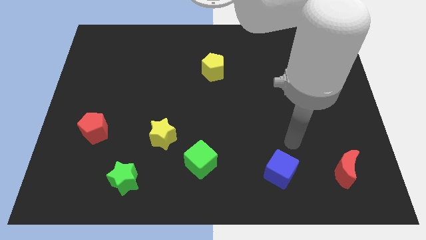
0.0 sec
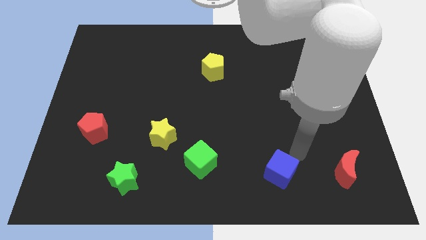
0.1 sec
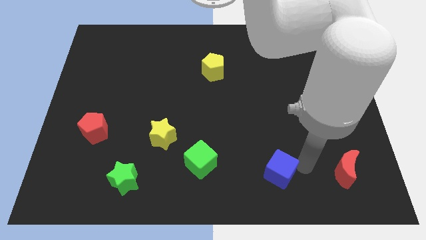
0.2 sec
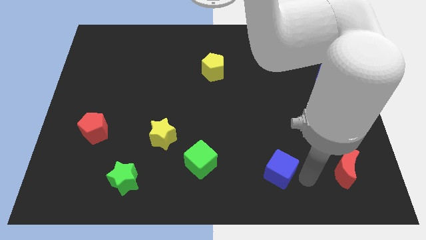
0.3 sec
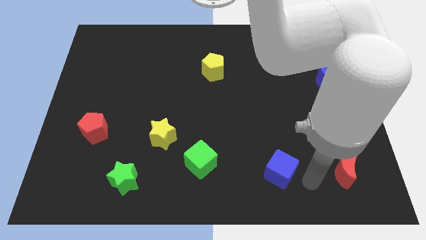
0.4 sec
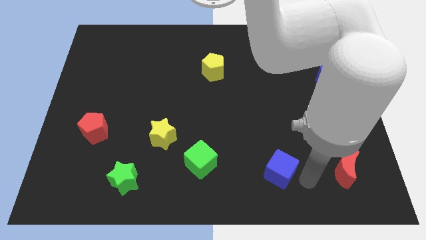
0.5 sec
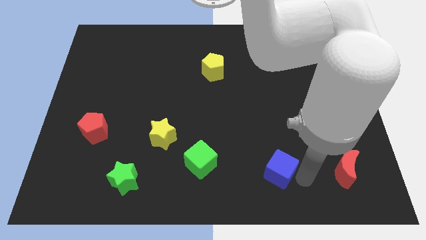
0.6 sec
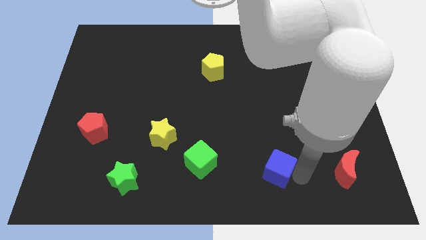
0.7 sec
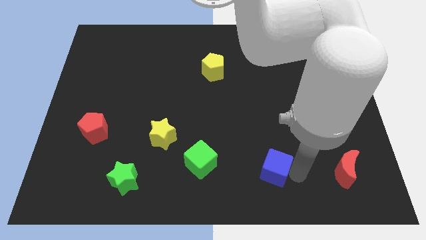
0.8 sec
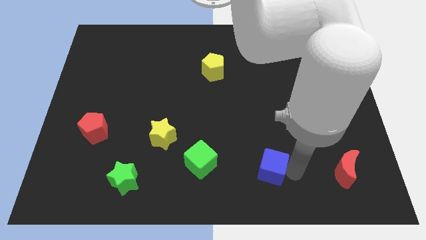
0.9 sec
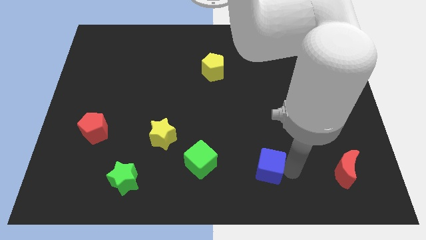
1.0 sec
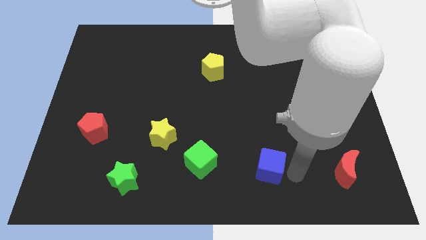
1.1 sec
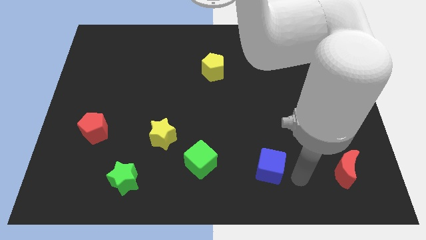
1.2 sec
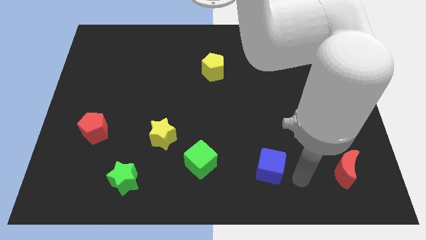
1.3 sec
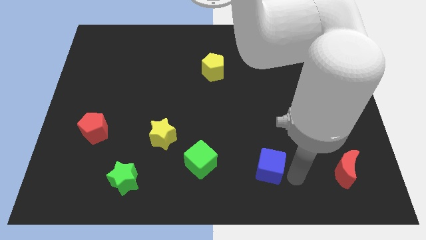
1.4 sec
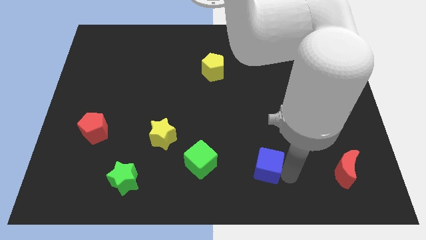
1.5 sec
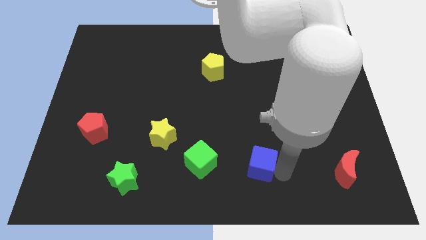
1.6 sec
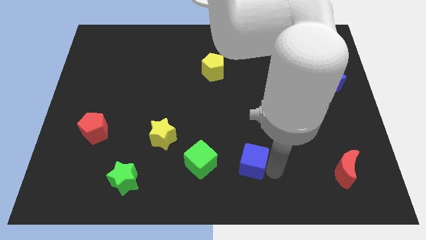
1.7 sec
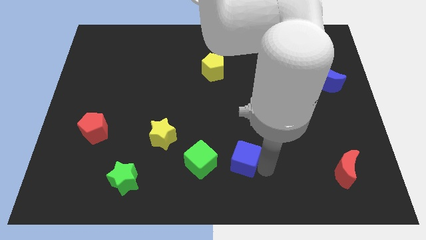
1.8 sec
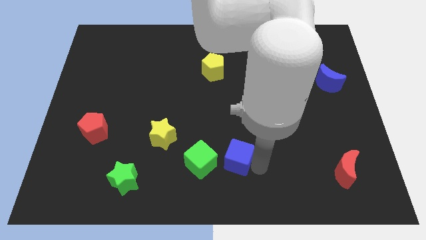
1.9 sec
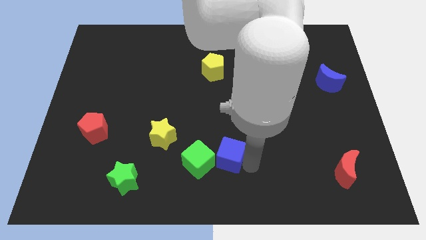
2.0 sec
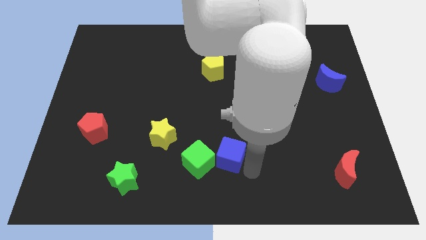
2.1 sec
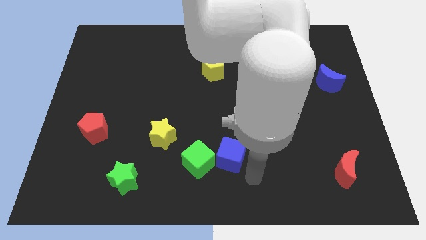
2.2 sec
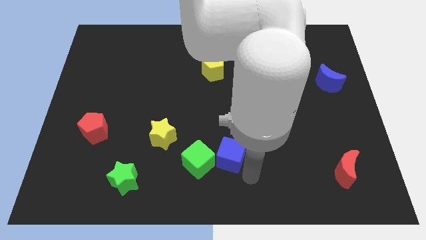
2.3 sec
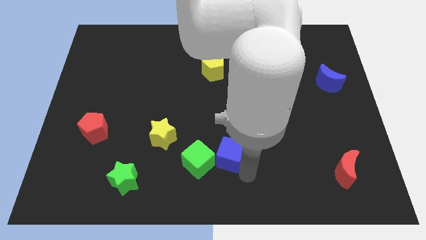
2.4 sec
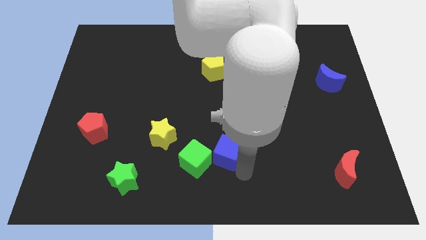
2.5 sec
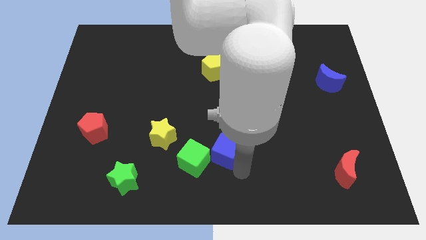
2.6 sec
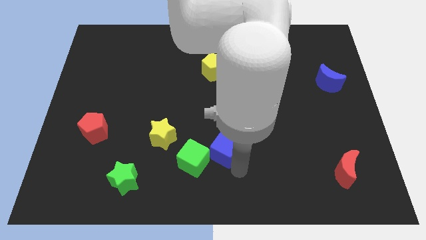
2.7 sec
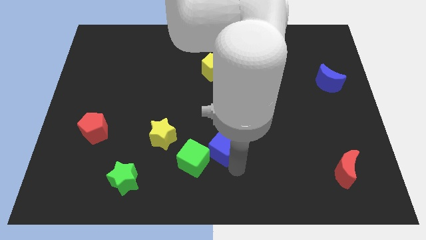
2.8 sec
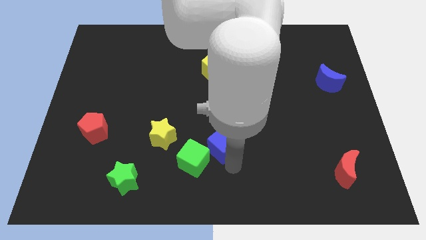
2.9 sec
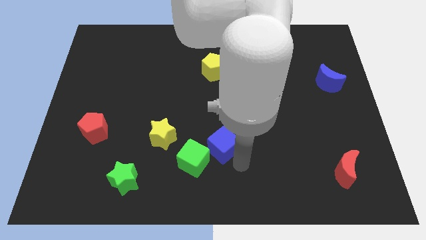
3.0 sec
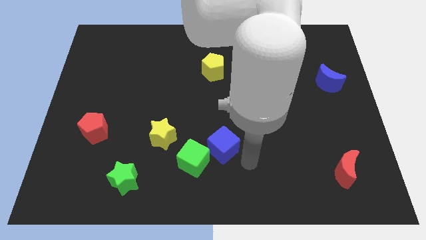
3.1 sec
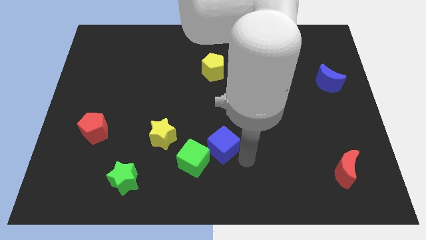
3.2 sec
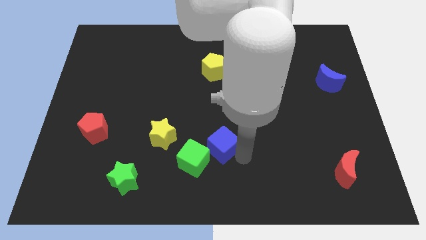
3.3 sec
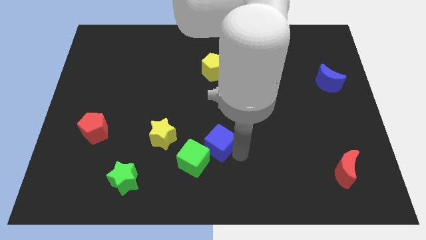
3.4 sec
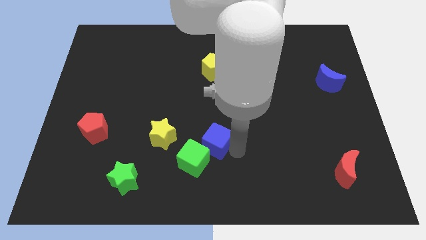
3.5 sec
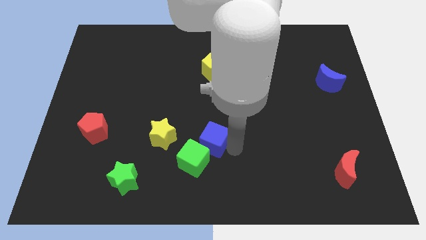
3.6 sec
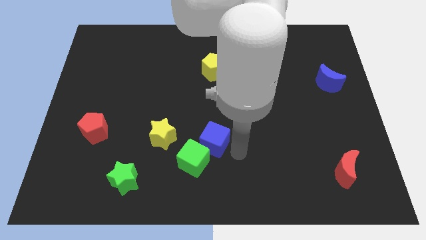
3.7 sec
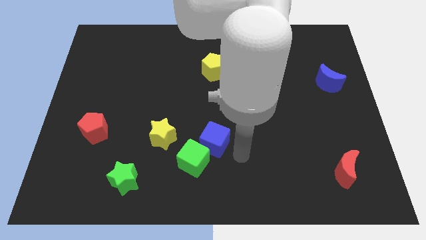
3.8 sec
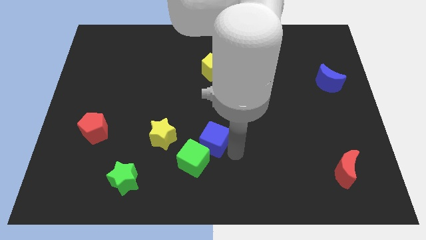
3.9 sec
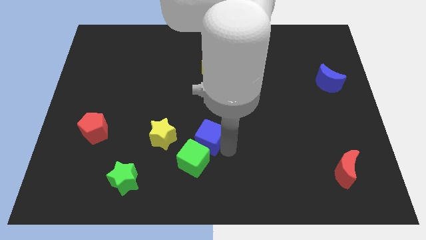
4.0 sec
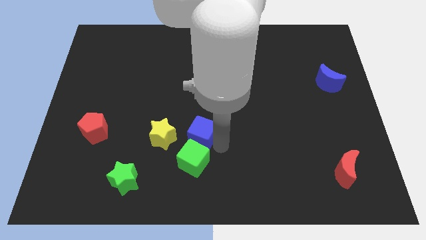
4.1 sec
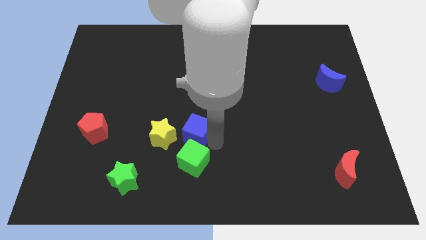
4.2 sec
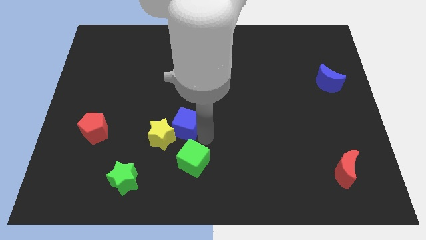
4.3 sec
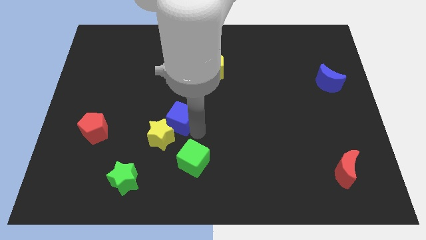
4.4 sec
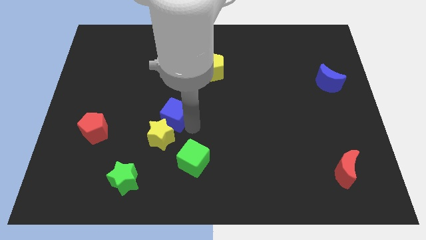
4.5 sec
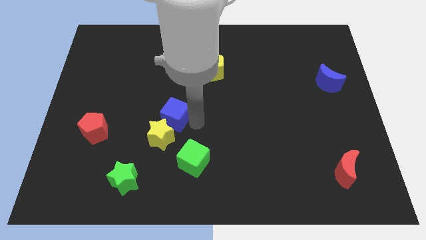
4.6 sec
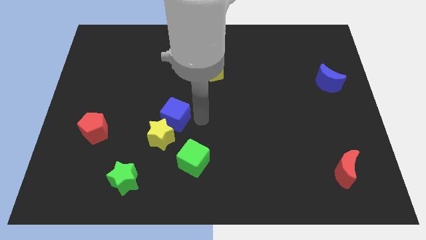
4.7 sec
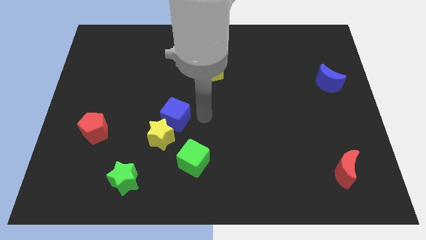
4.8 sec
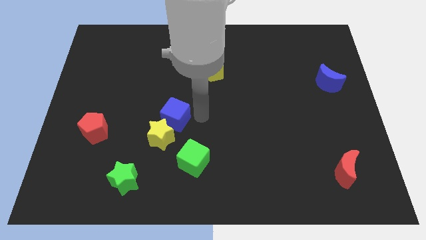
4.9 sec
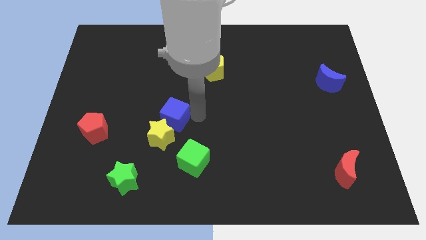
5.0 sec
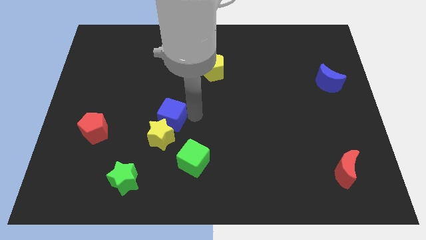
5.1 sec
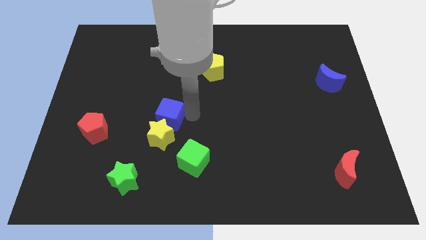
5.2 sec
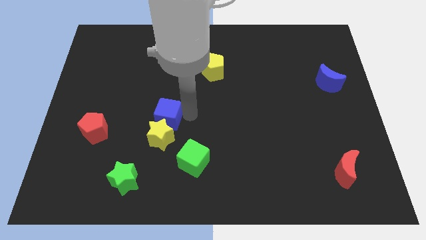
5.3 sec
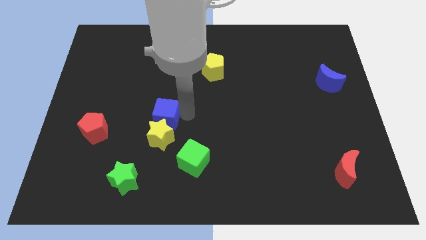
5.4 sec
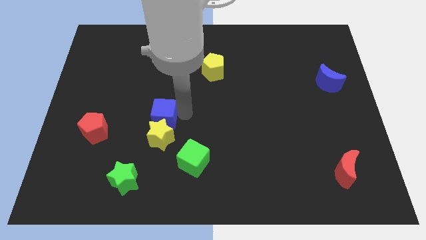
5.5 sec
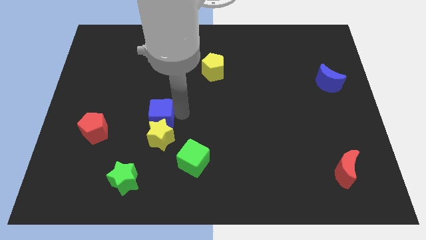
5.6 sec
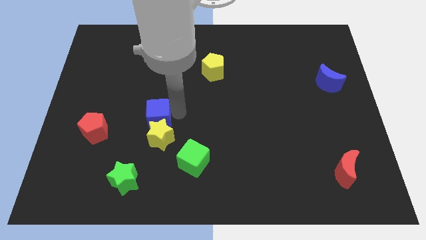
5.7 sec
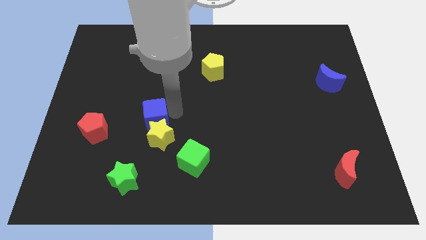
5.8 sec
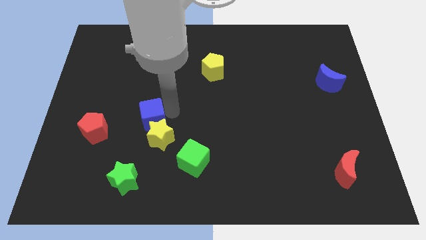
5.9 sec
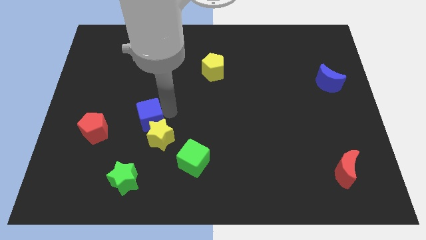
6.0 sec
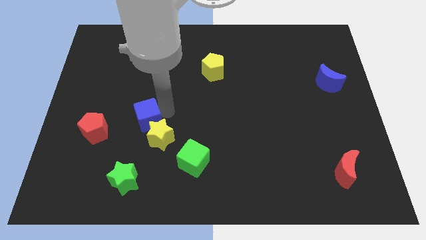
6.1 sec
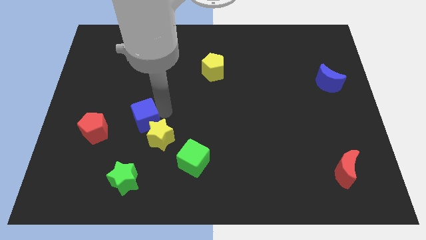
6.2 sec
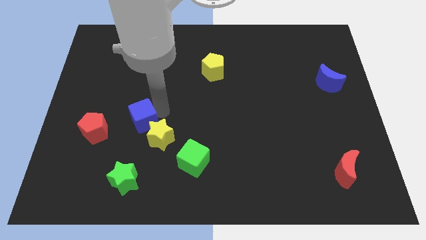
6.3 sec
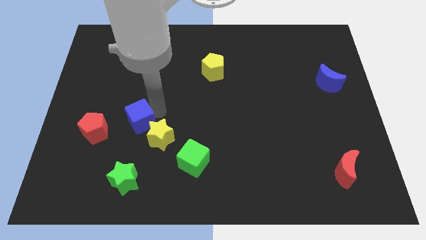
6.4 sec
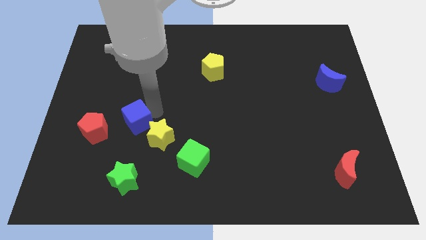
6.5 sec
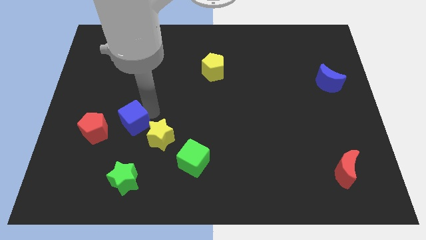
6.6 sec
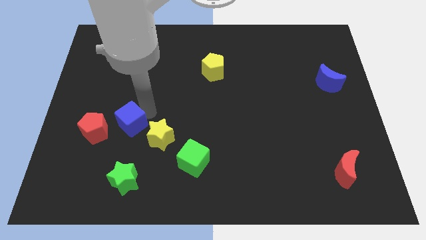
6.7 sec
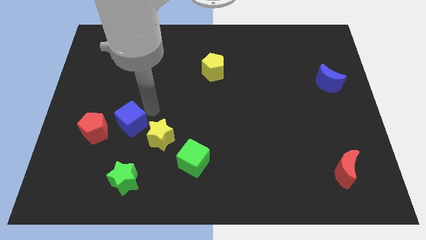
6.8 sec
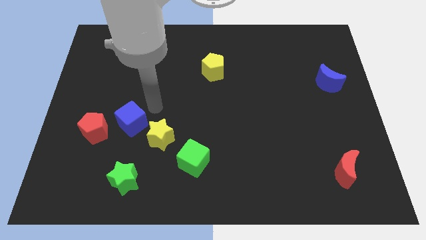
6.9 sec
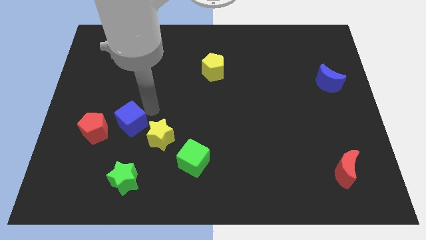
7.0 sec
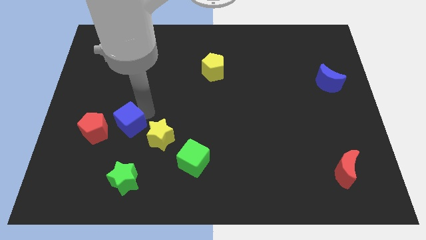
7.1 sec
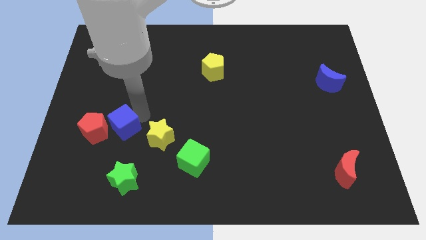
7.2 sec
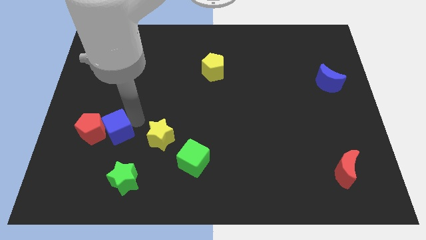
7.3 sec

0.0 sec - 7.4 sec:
move the blue cube towards the red pentagon
